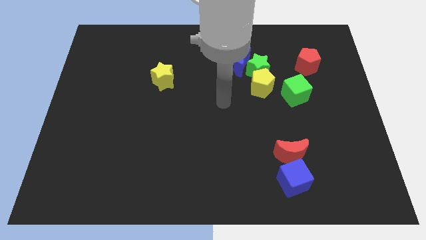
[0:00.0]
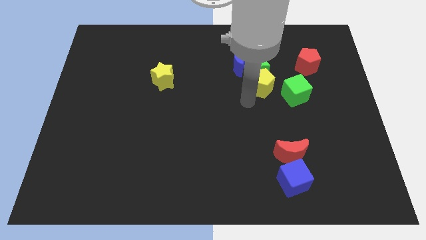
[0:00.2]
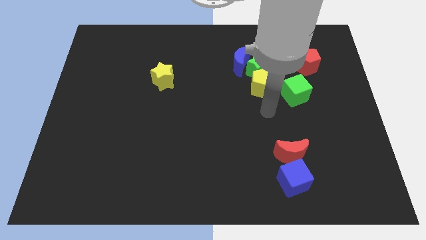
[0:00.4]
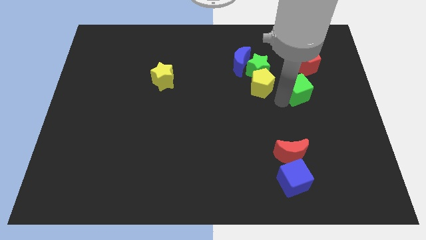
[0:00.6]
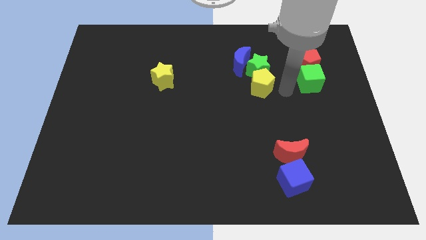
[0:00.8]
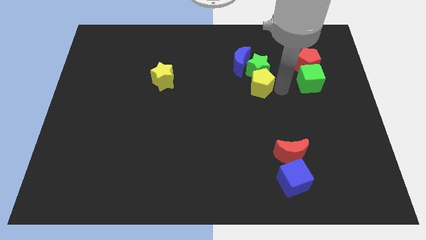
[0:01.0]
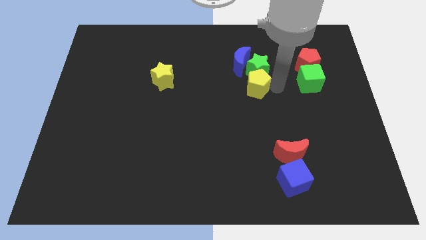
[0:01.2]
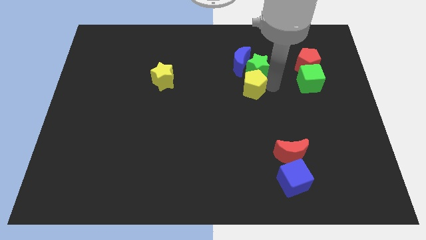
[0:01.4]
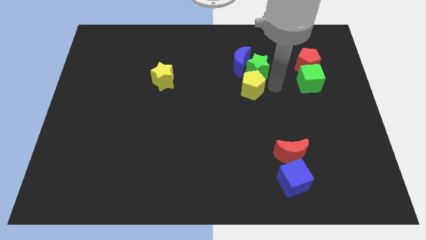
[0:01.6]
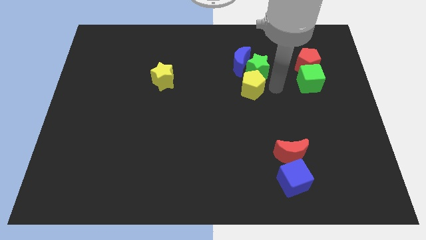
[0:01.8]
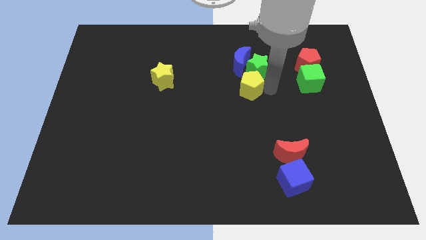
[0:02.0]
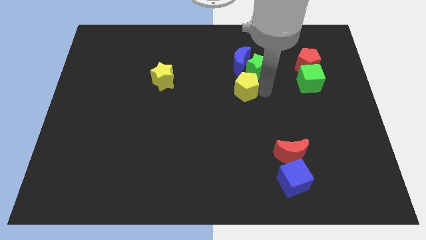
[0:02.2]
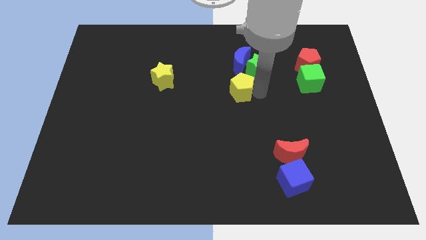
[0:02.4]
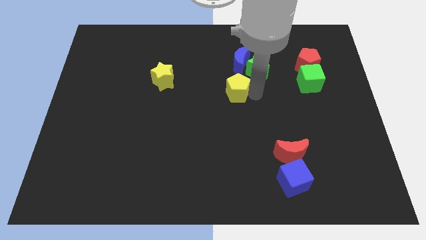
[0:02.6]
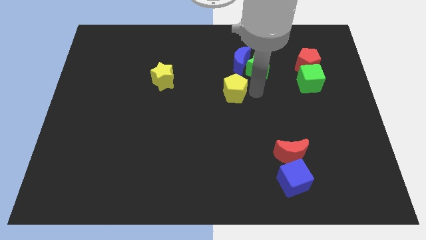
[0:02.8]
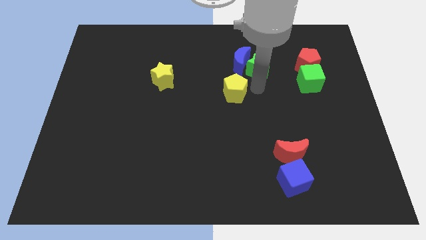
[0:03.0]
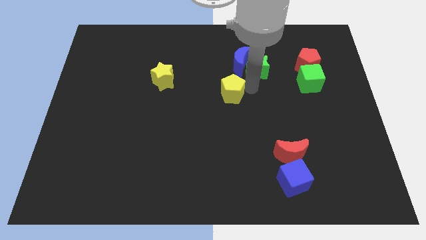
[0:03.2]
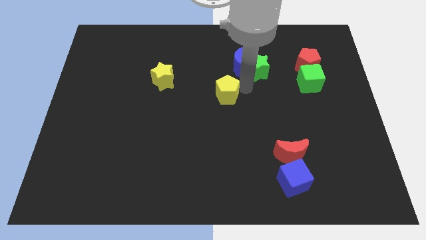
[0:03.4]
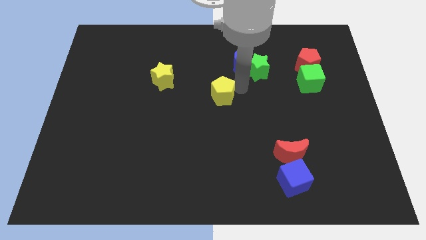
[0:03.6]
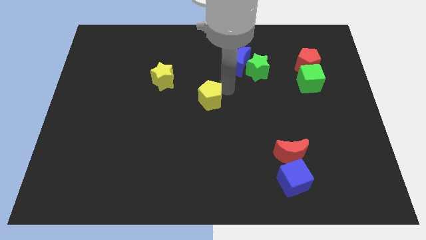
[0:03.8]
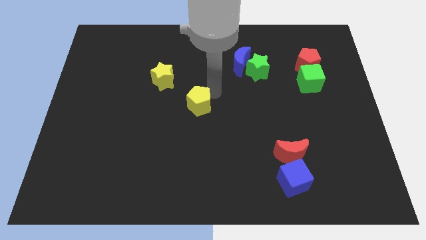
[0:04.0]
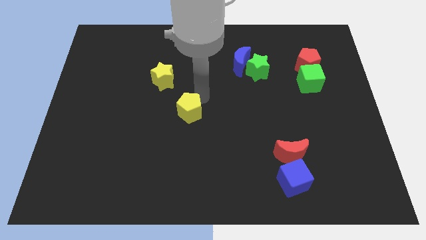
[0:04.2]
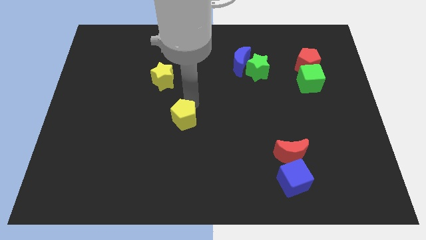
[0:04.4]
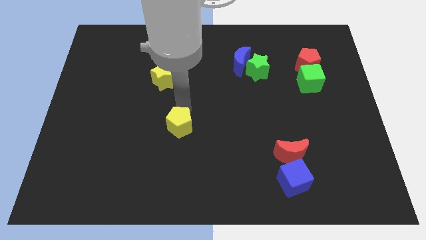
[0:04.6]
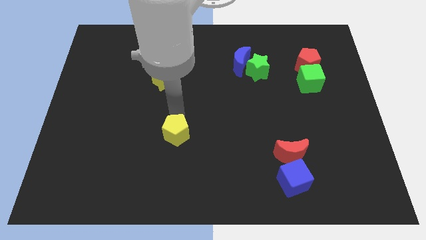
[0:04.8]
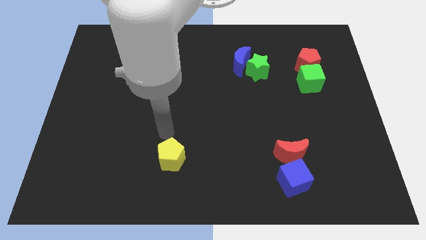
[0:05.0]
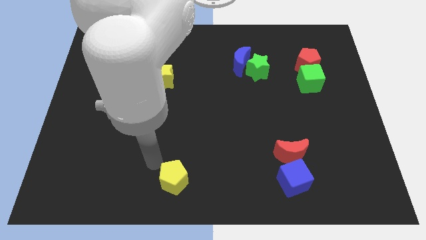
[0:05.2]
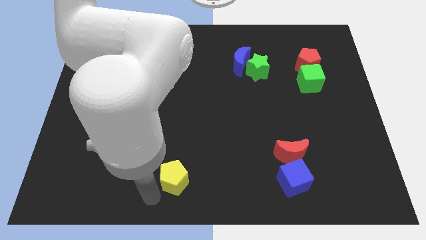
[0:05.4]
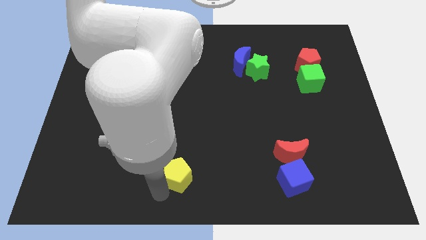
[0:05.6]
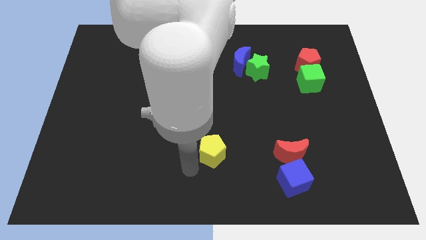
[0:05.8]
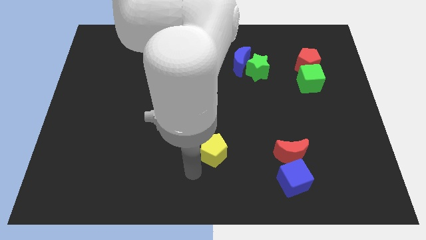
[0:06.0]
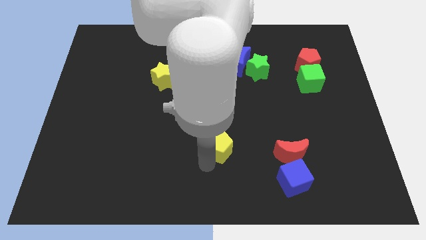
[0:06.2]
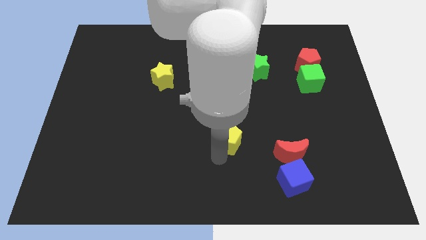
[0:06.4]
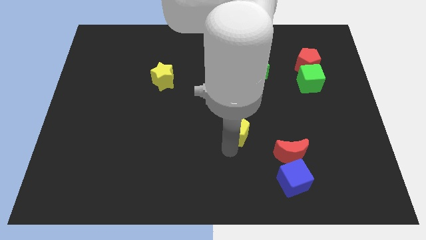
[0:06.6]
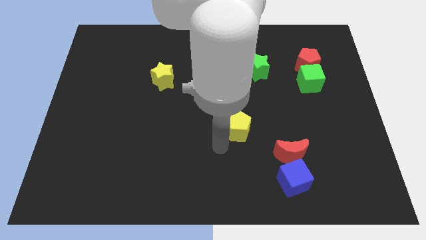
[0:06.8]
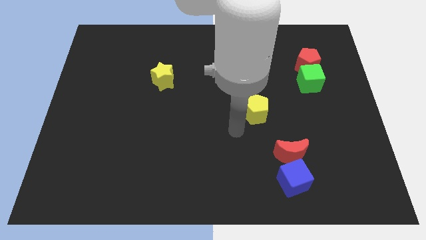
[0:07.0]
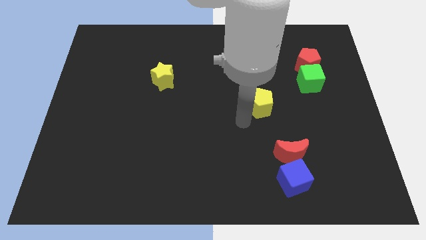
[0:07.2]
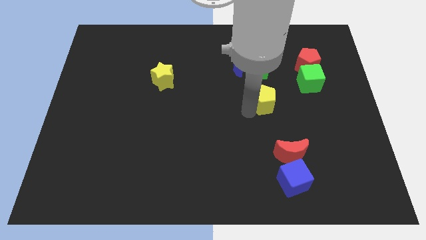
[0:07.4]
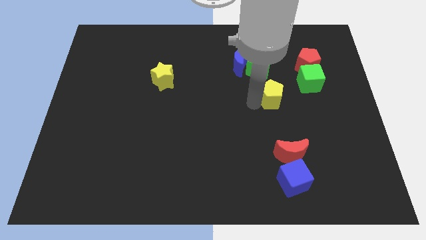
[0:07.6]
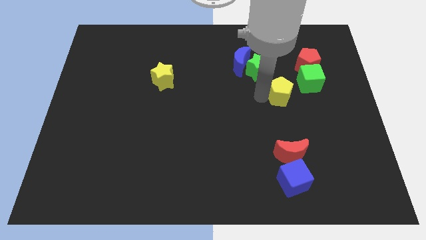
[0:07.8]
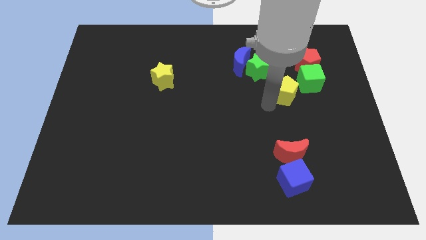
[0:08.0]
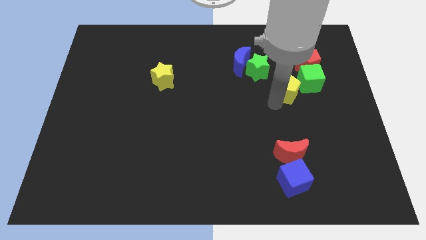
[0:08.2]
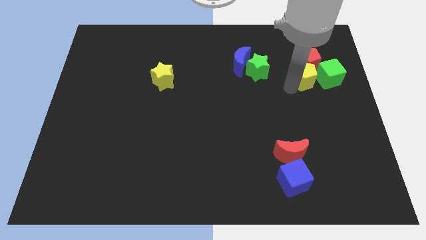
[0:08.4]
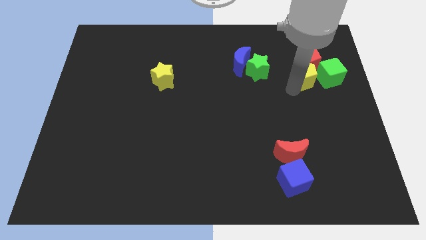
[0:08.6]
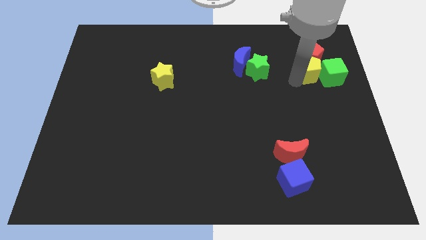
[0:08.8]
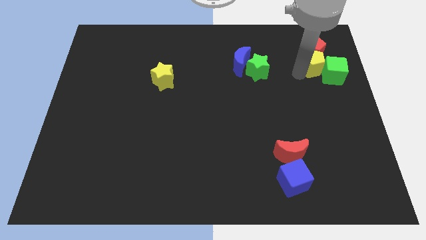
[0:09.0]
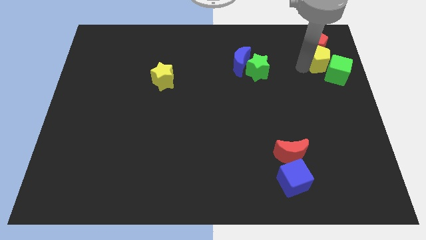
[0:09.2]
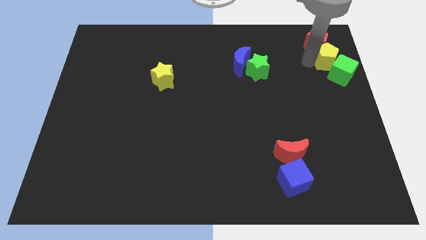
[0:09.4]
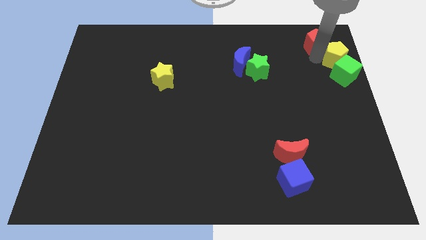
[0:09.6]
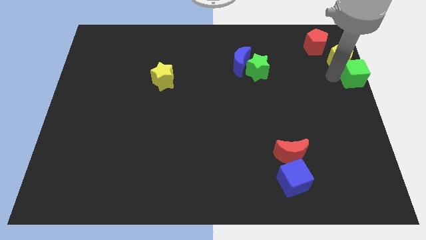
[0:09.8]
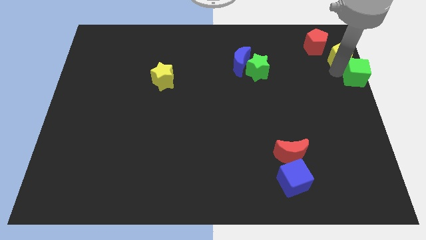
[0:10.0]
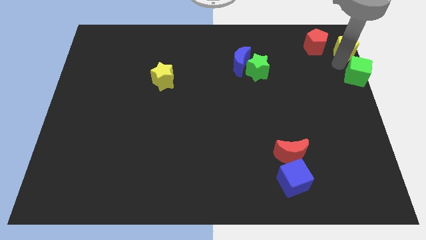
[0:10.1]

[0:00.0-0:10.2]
move the yellow pentagon to the top right

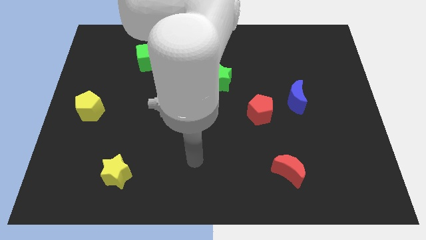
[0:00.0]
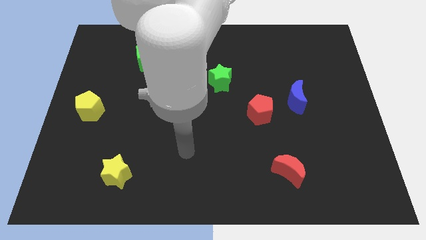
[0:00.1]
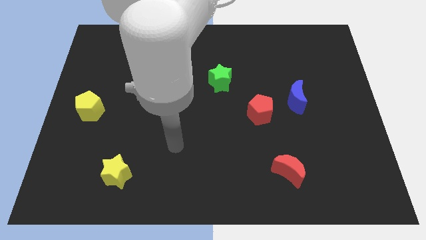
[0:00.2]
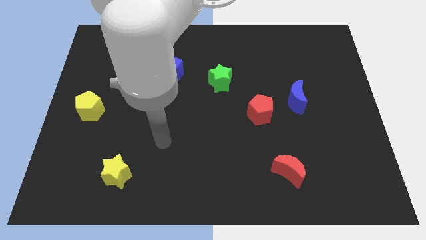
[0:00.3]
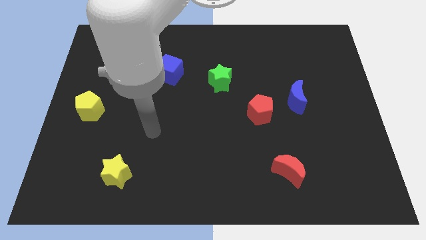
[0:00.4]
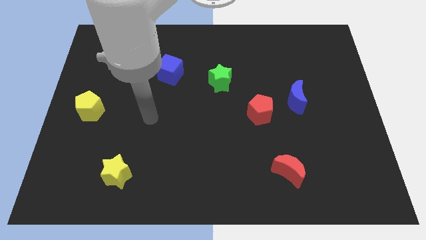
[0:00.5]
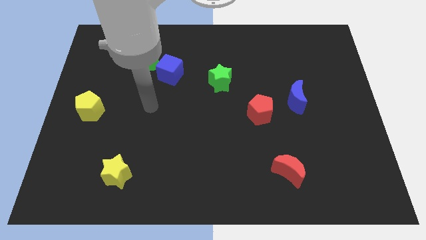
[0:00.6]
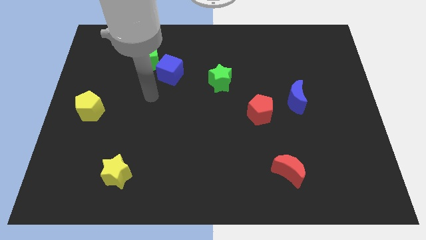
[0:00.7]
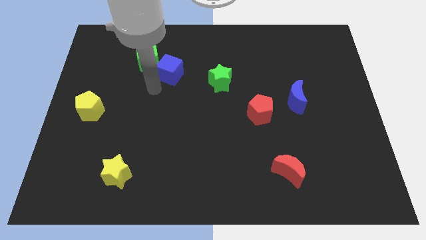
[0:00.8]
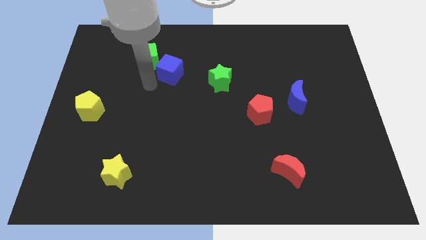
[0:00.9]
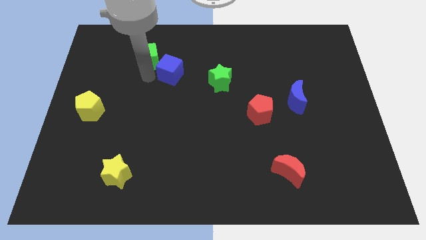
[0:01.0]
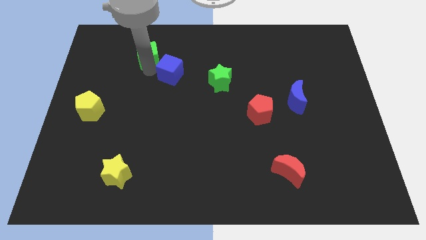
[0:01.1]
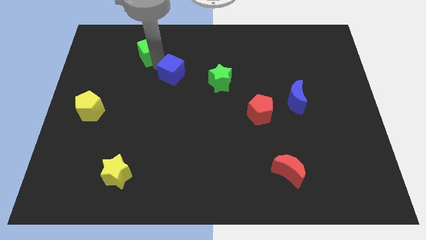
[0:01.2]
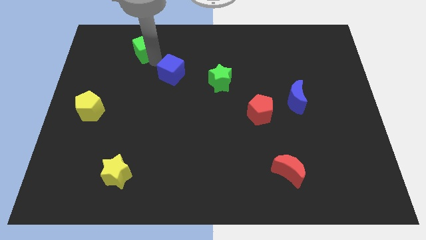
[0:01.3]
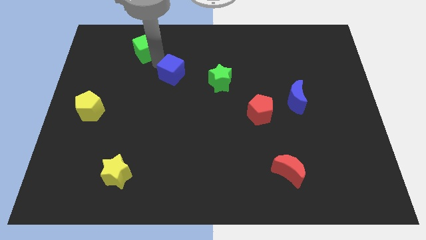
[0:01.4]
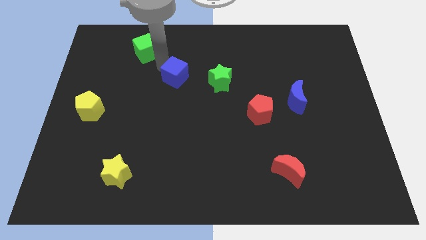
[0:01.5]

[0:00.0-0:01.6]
move the blue cube to the center
